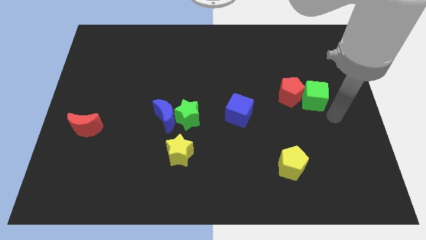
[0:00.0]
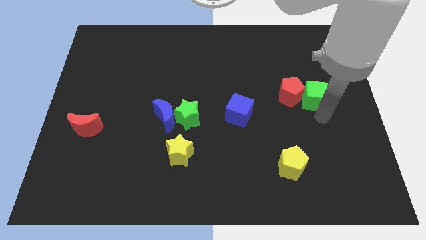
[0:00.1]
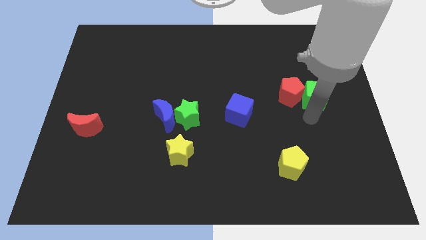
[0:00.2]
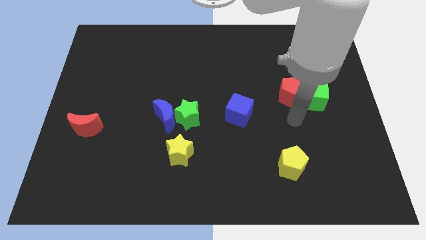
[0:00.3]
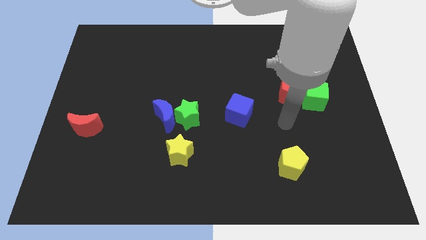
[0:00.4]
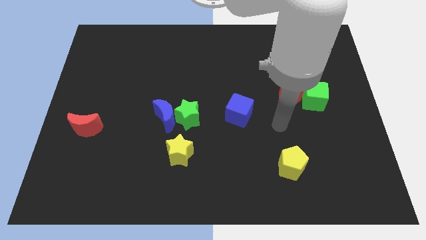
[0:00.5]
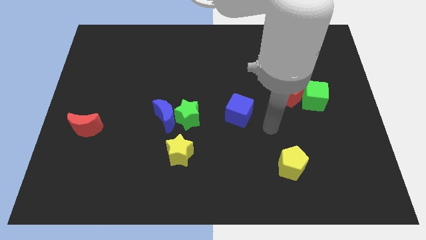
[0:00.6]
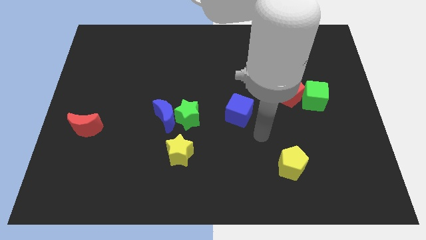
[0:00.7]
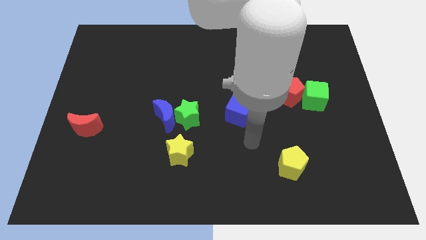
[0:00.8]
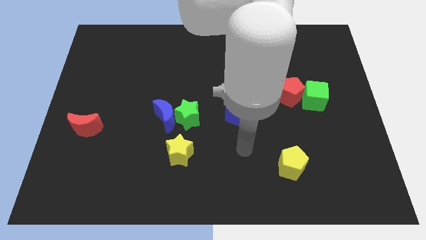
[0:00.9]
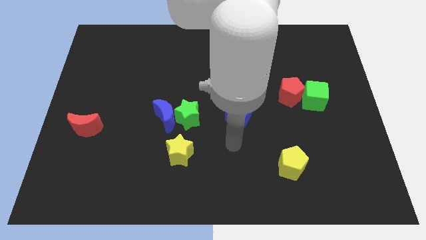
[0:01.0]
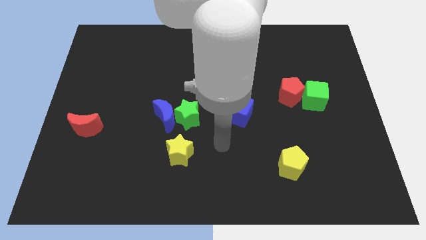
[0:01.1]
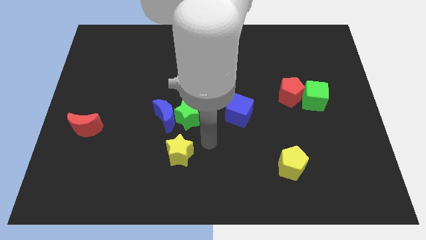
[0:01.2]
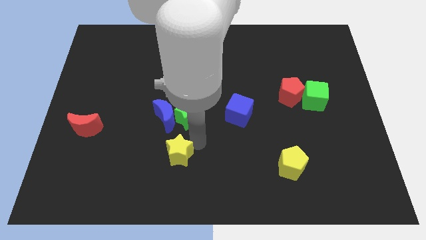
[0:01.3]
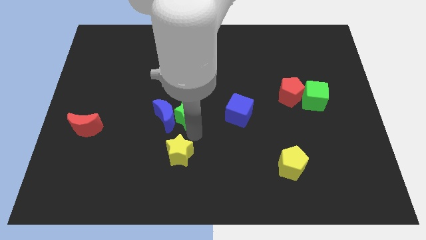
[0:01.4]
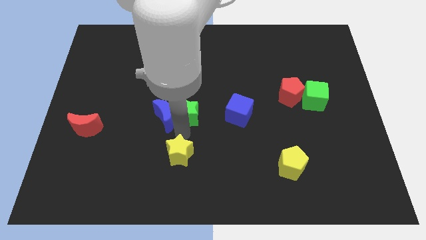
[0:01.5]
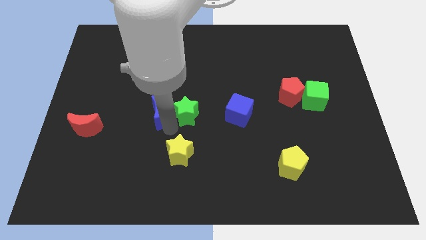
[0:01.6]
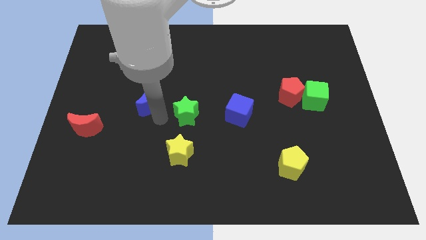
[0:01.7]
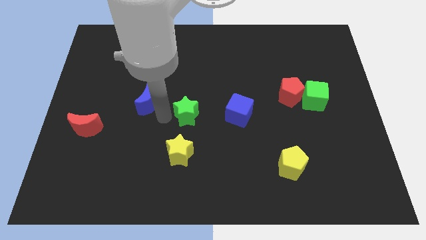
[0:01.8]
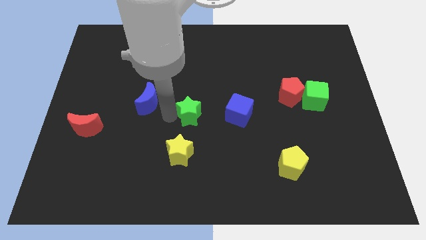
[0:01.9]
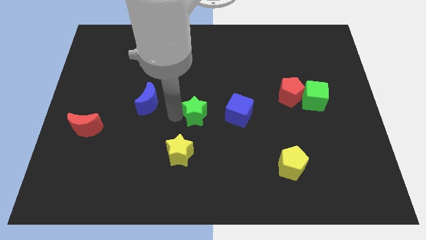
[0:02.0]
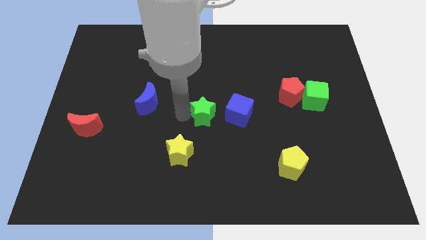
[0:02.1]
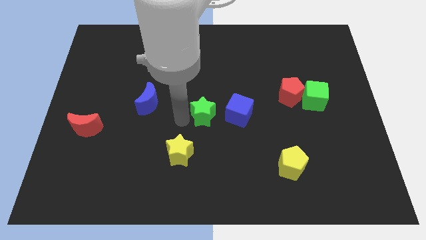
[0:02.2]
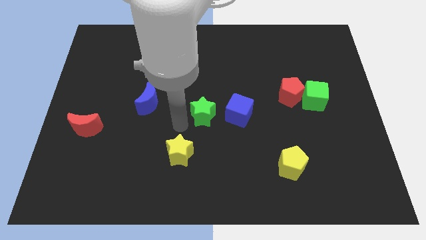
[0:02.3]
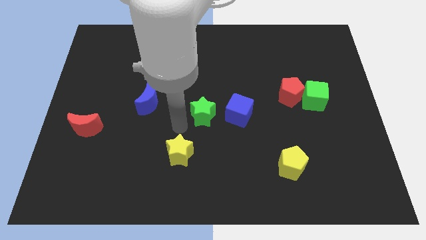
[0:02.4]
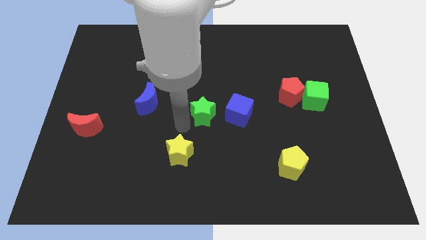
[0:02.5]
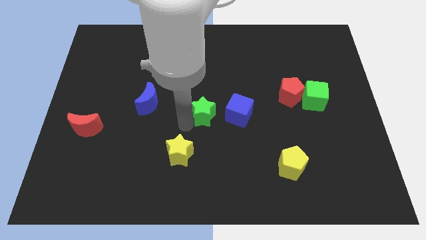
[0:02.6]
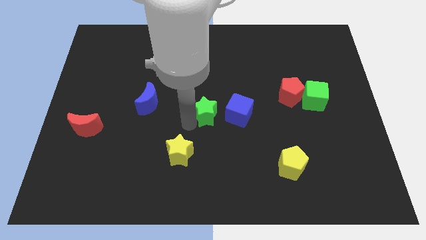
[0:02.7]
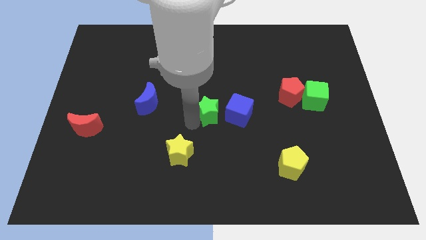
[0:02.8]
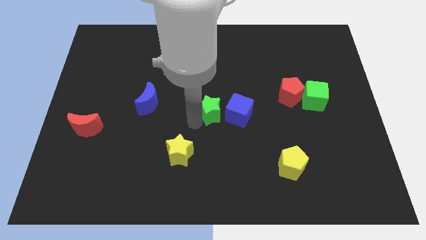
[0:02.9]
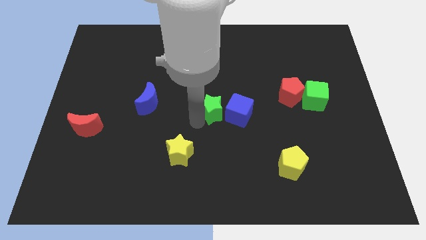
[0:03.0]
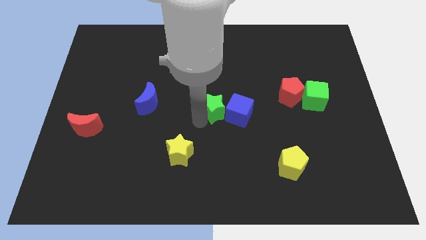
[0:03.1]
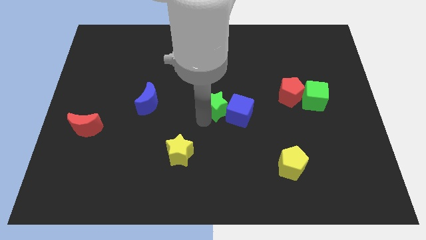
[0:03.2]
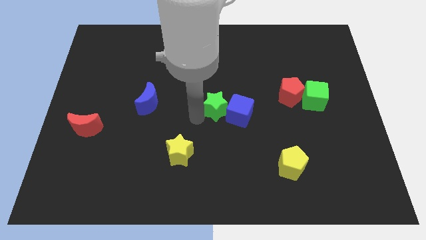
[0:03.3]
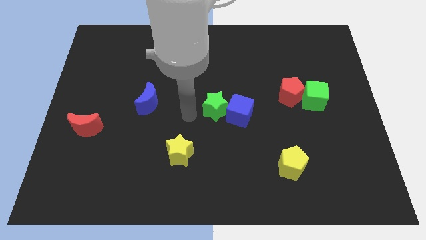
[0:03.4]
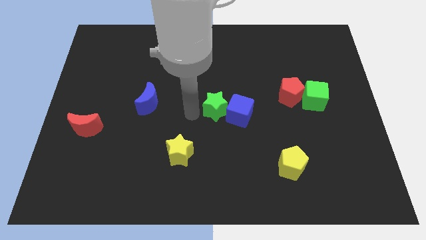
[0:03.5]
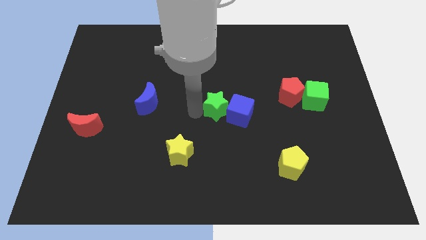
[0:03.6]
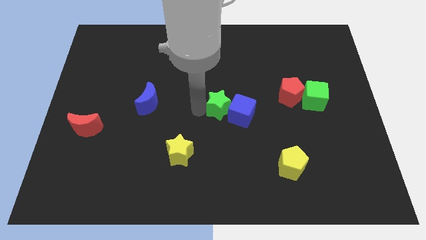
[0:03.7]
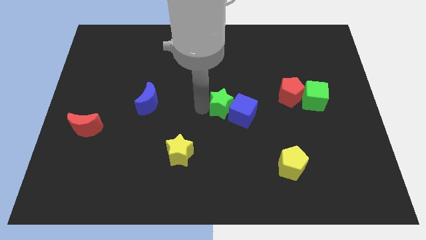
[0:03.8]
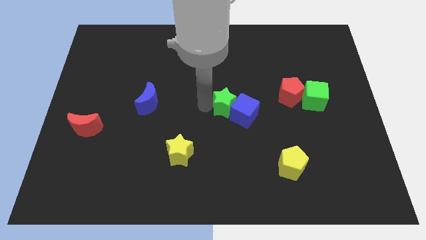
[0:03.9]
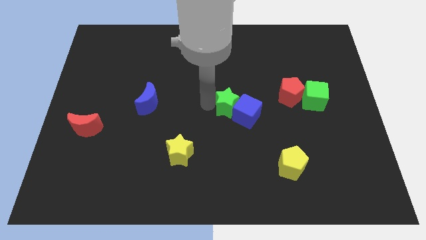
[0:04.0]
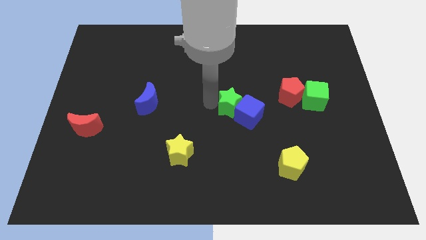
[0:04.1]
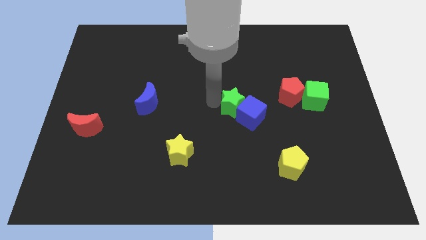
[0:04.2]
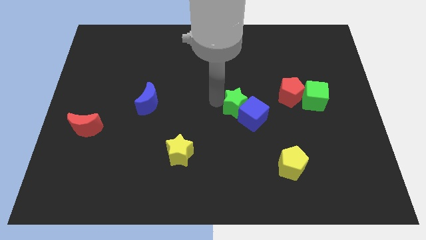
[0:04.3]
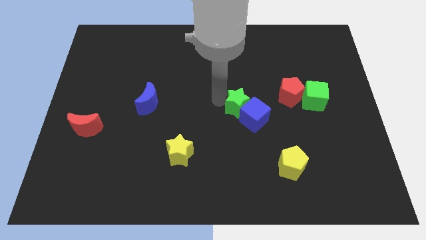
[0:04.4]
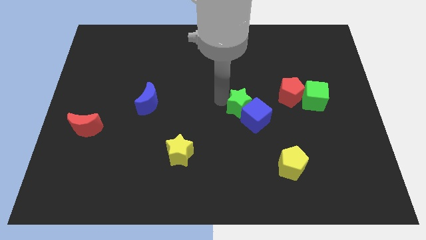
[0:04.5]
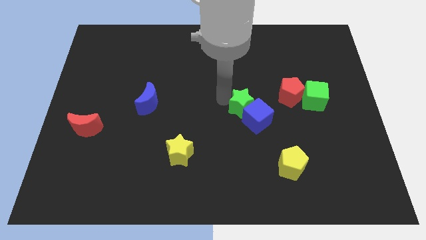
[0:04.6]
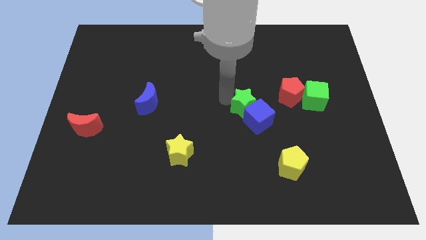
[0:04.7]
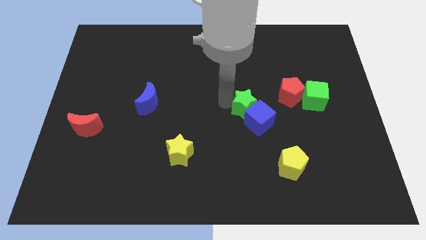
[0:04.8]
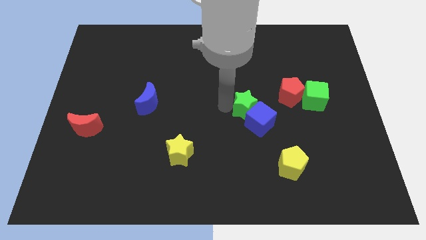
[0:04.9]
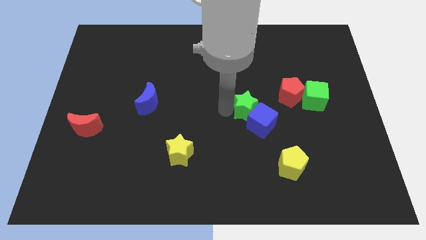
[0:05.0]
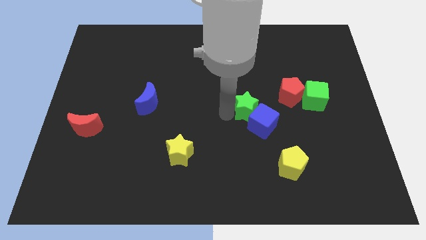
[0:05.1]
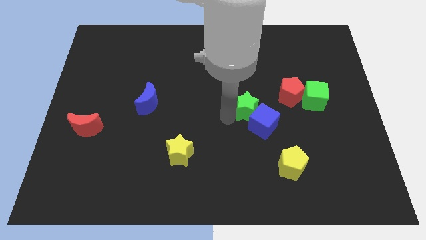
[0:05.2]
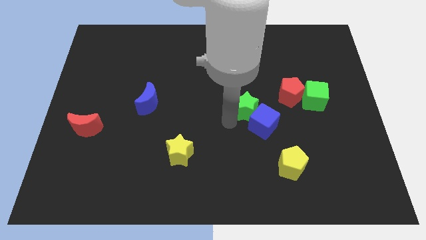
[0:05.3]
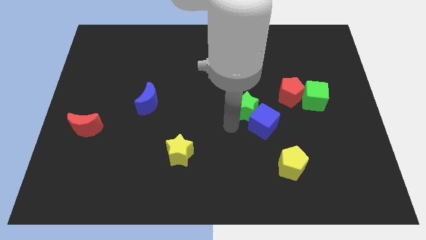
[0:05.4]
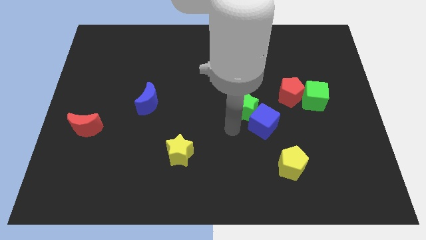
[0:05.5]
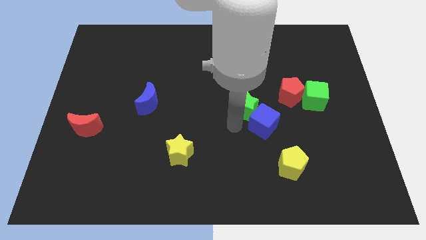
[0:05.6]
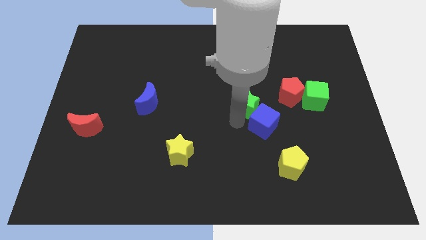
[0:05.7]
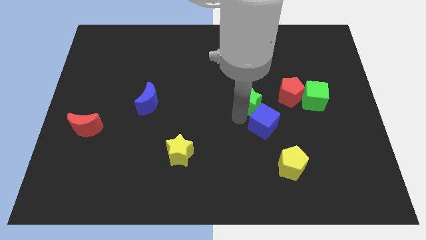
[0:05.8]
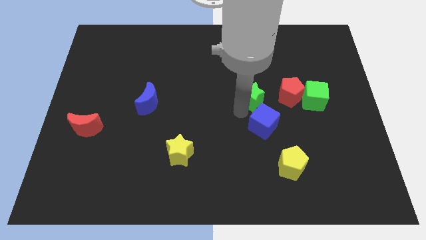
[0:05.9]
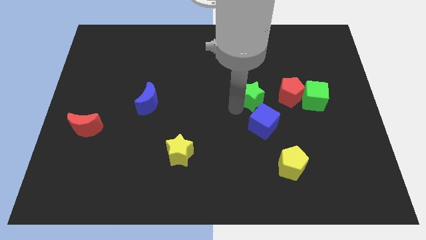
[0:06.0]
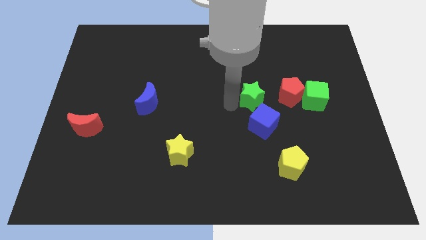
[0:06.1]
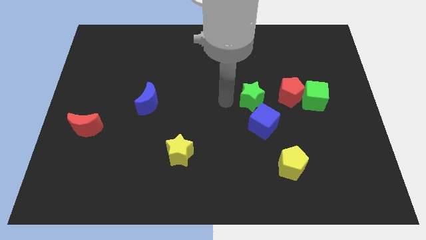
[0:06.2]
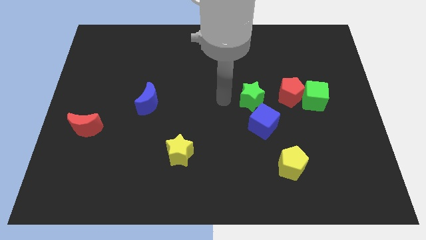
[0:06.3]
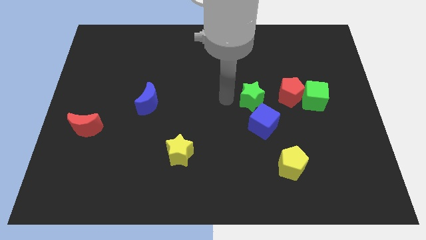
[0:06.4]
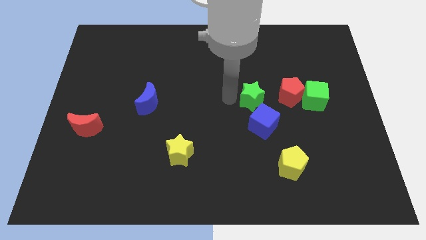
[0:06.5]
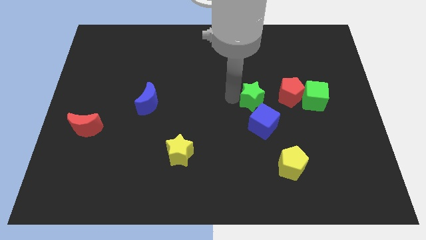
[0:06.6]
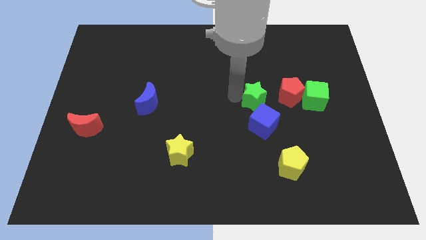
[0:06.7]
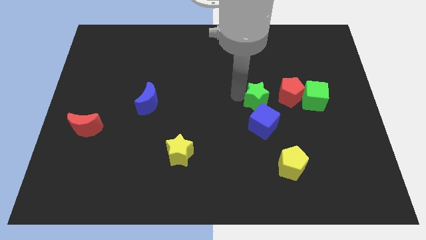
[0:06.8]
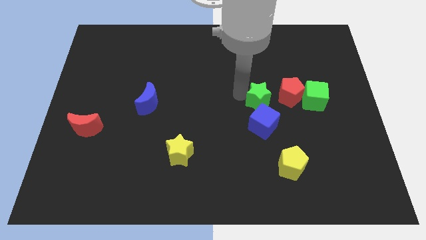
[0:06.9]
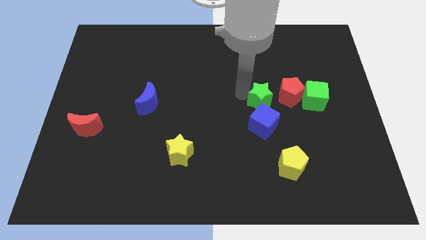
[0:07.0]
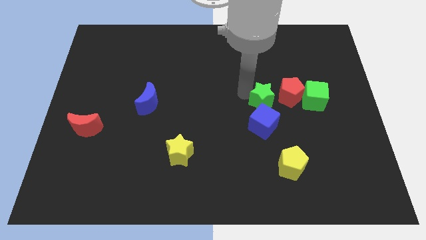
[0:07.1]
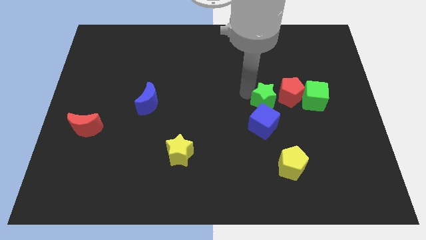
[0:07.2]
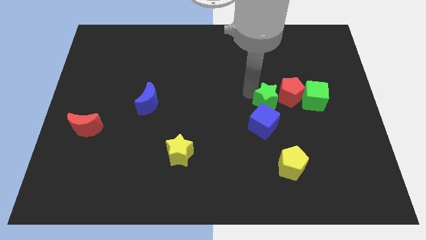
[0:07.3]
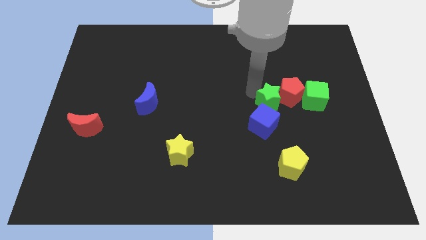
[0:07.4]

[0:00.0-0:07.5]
push the green star next to the red pentagon

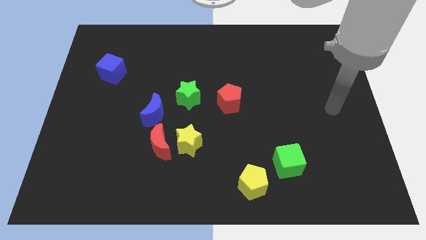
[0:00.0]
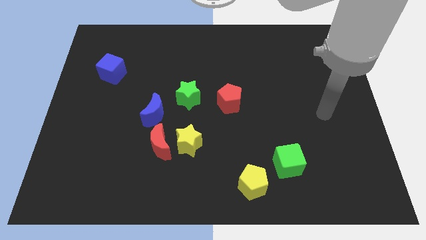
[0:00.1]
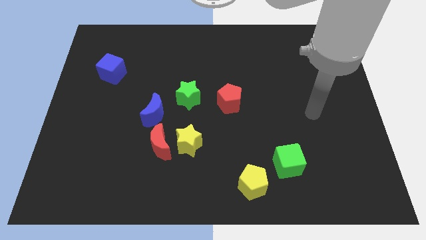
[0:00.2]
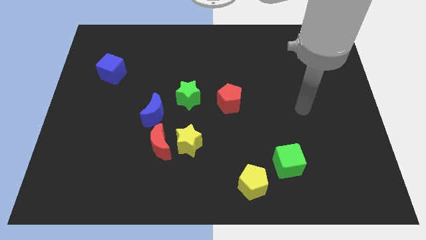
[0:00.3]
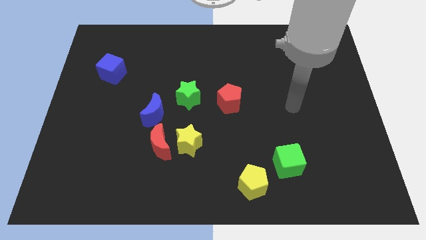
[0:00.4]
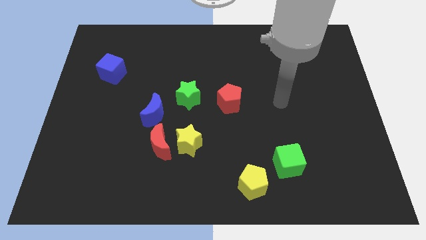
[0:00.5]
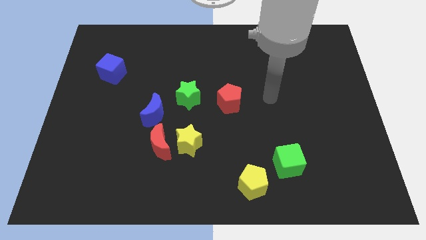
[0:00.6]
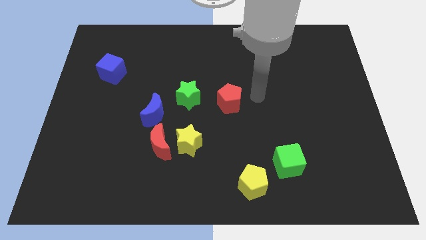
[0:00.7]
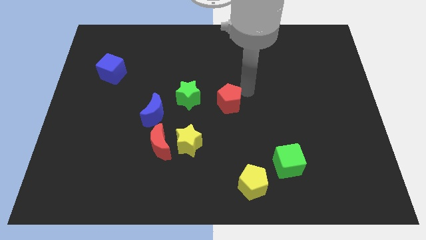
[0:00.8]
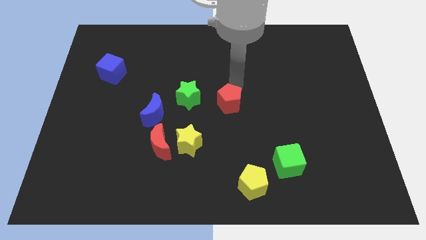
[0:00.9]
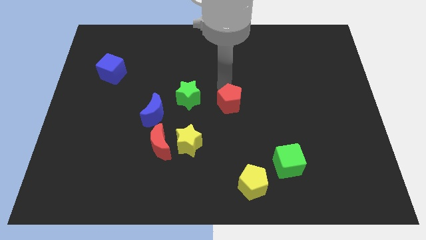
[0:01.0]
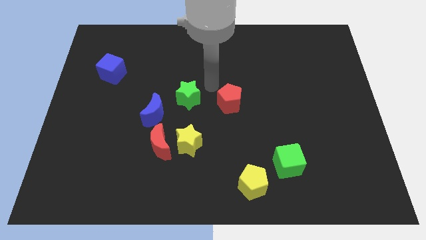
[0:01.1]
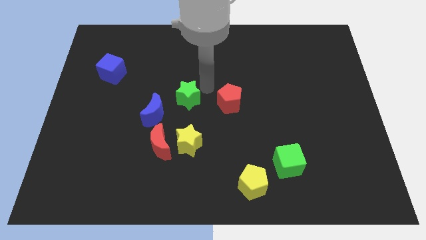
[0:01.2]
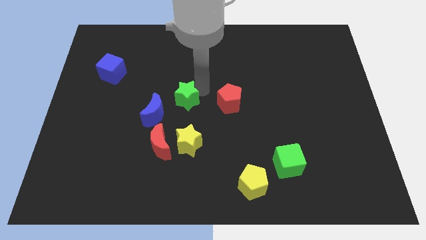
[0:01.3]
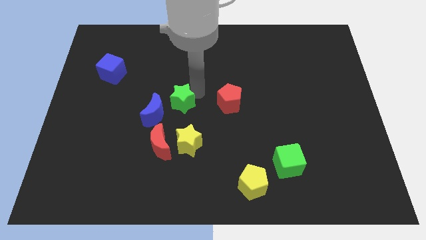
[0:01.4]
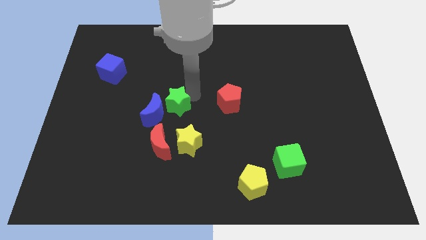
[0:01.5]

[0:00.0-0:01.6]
slide the green star close to the blue moon
